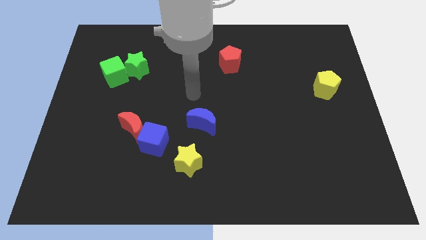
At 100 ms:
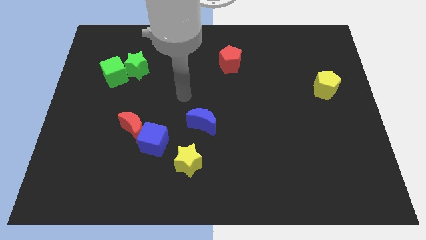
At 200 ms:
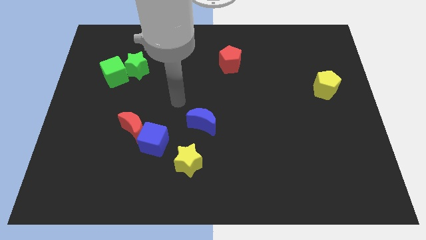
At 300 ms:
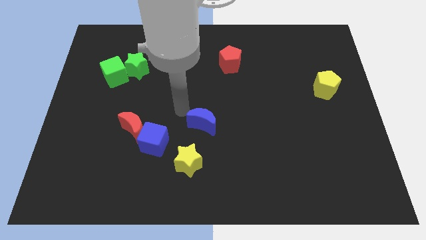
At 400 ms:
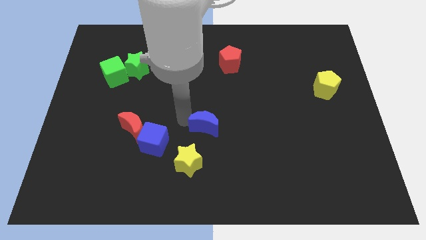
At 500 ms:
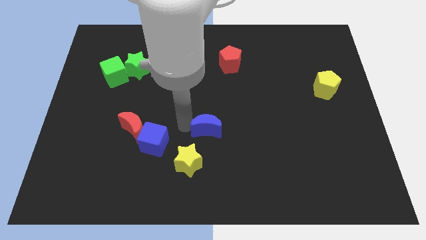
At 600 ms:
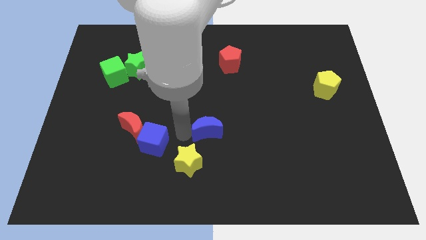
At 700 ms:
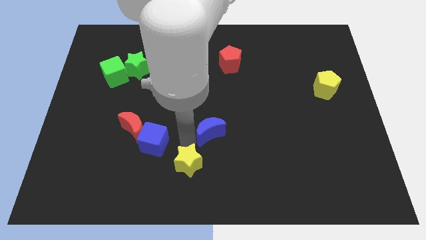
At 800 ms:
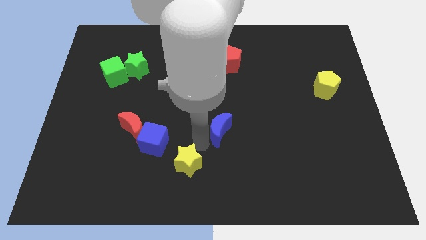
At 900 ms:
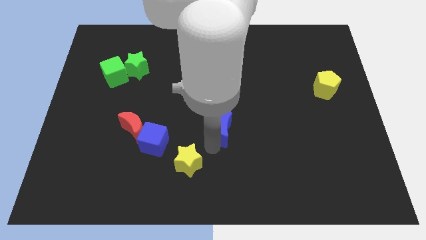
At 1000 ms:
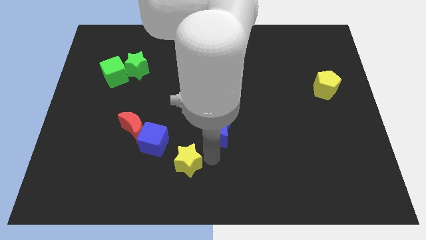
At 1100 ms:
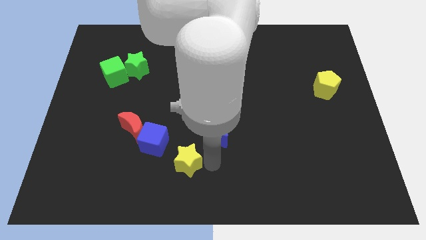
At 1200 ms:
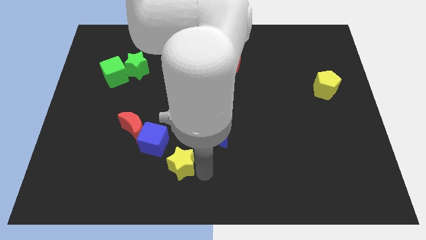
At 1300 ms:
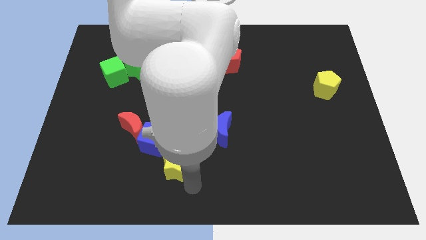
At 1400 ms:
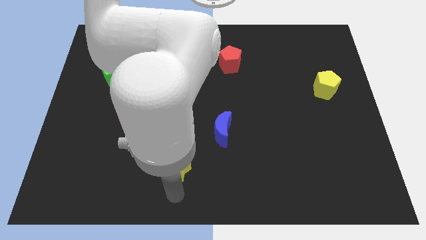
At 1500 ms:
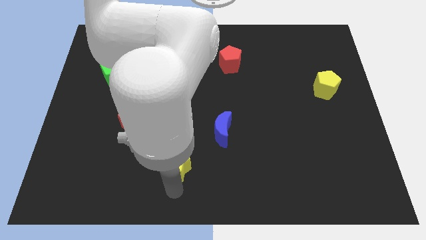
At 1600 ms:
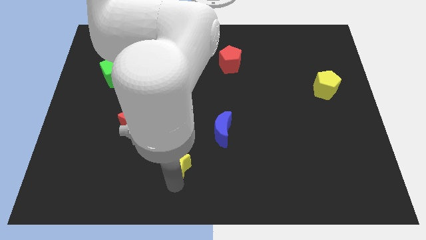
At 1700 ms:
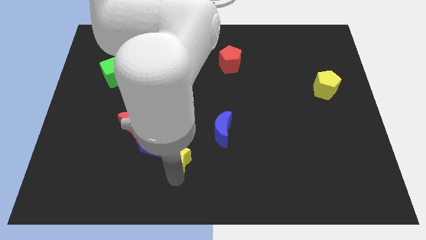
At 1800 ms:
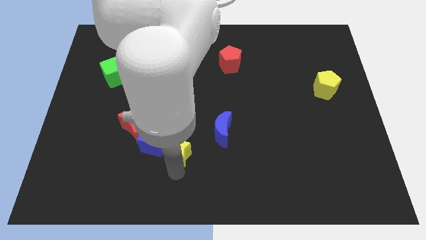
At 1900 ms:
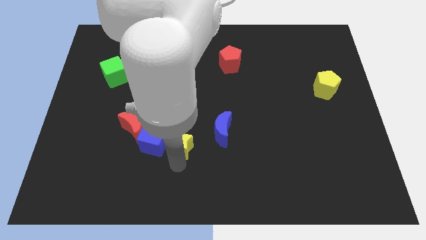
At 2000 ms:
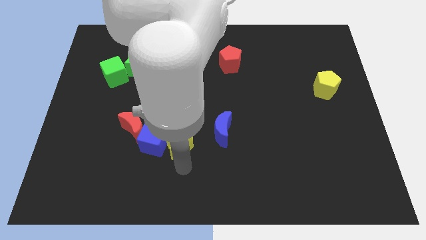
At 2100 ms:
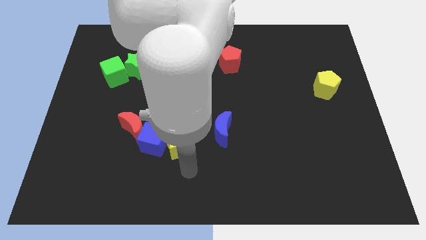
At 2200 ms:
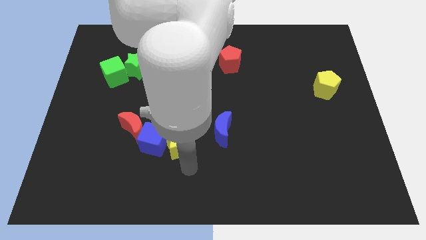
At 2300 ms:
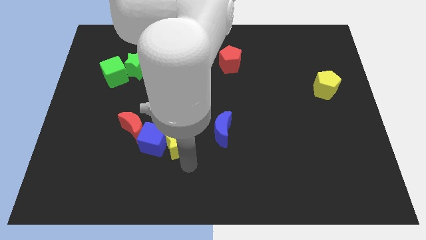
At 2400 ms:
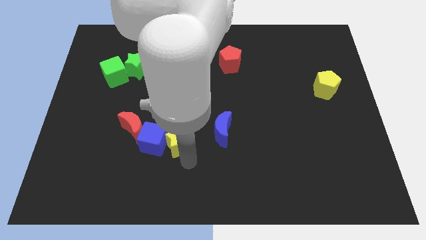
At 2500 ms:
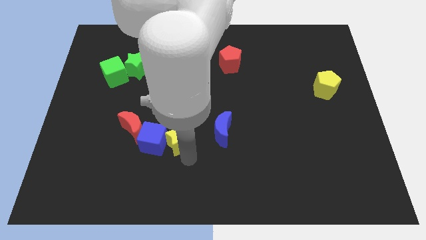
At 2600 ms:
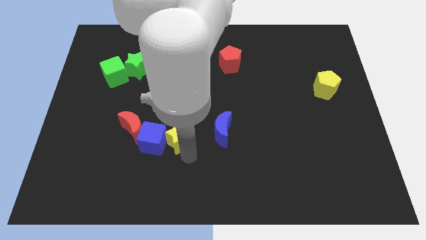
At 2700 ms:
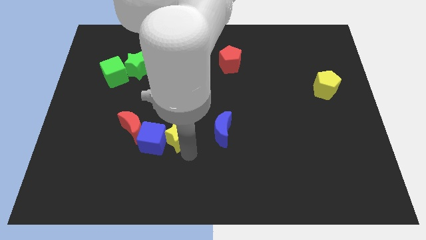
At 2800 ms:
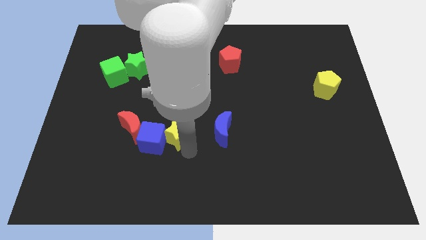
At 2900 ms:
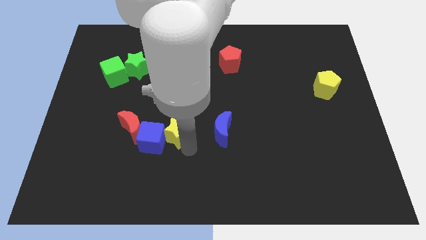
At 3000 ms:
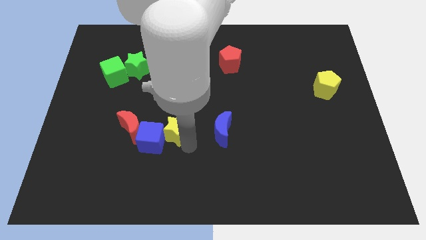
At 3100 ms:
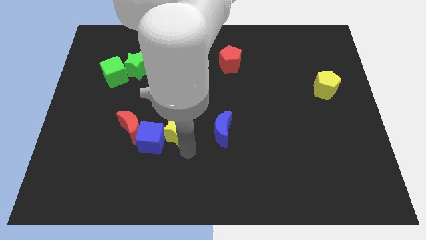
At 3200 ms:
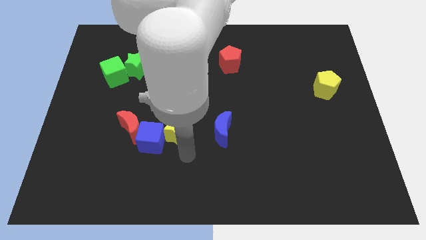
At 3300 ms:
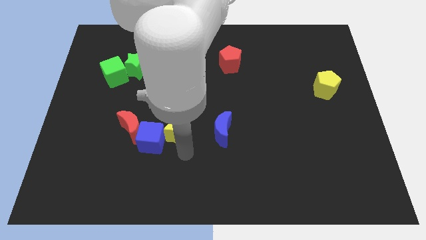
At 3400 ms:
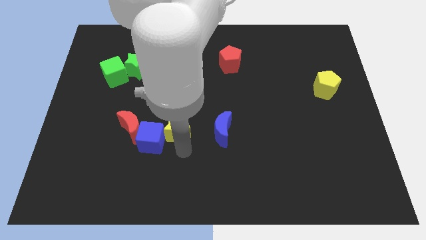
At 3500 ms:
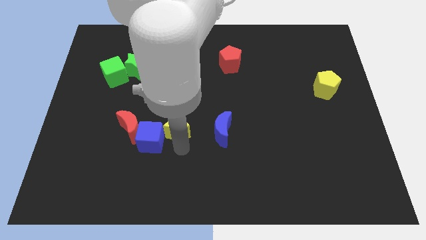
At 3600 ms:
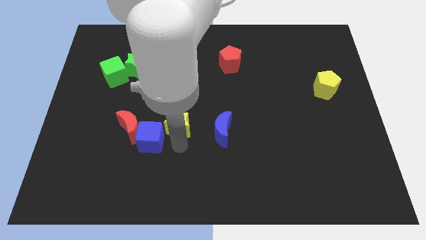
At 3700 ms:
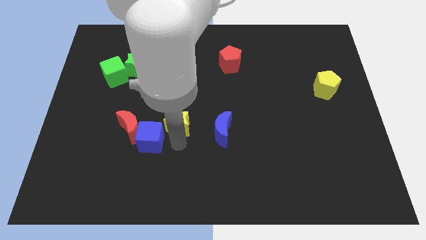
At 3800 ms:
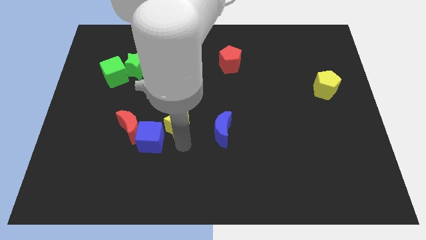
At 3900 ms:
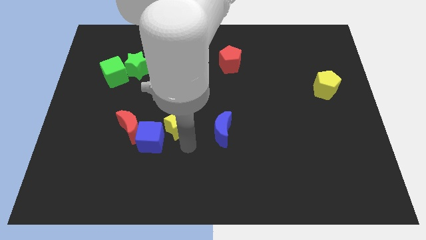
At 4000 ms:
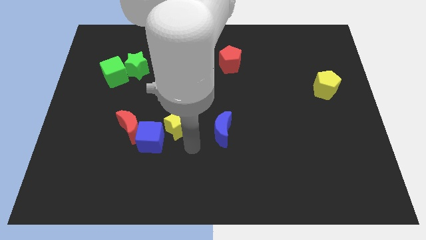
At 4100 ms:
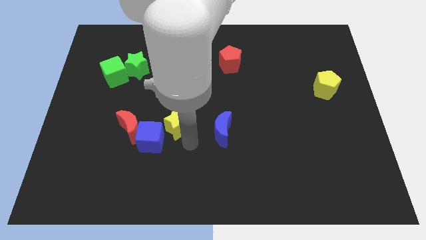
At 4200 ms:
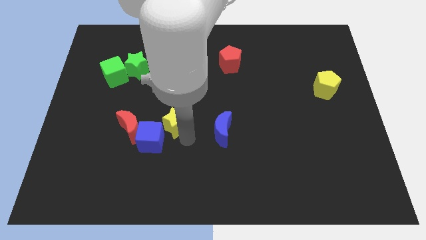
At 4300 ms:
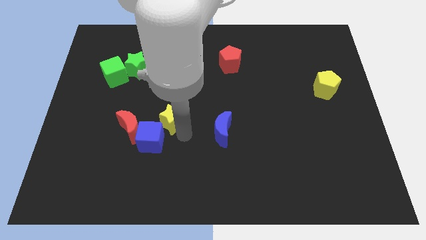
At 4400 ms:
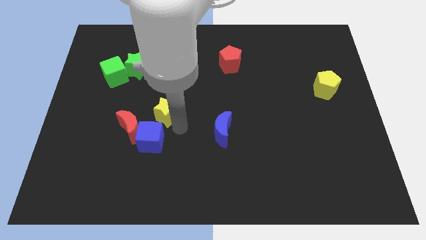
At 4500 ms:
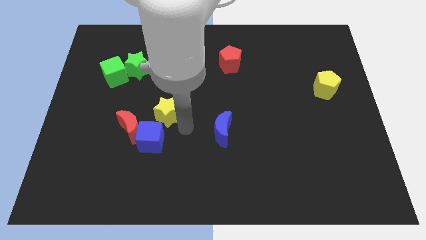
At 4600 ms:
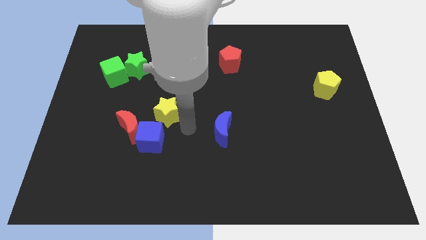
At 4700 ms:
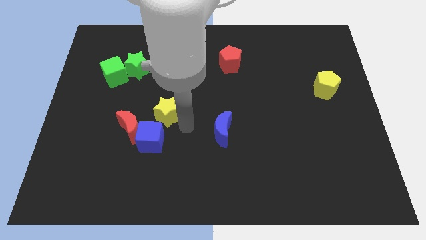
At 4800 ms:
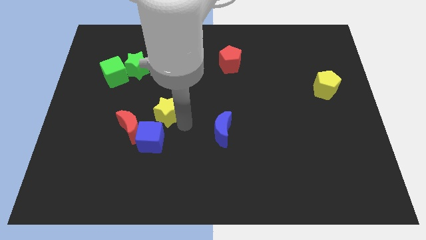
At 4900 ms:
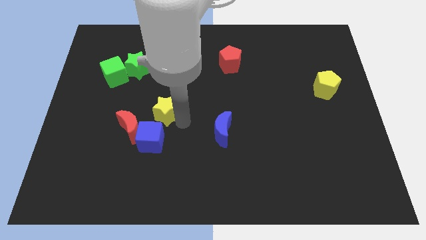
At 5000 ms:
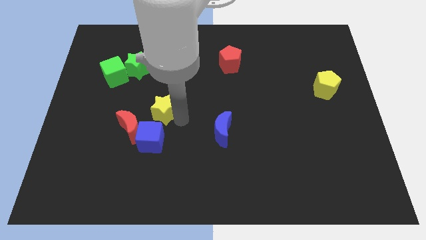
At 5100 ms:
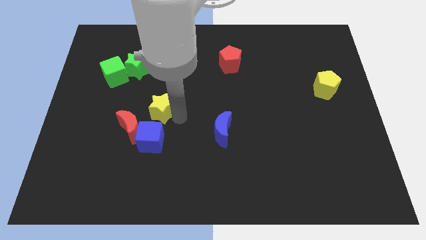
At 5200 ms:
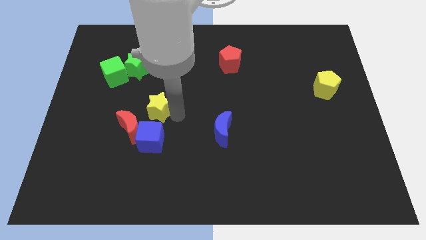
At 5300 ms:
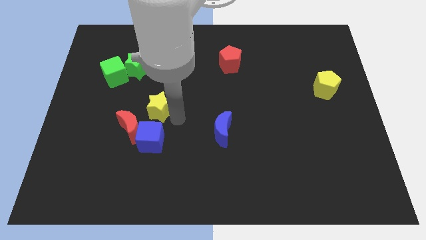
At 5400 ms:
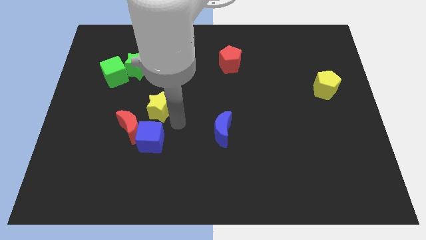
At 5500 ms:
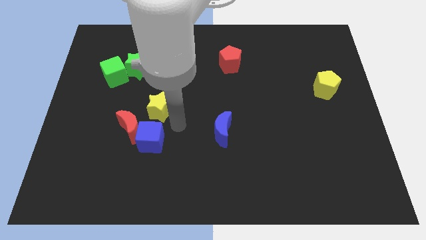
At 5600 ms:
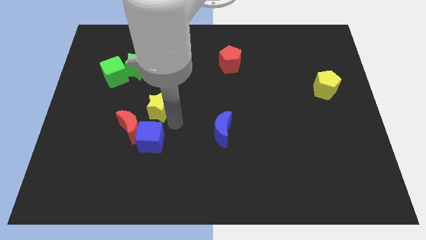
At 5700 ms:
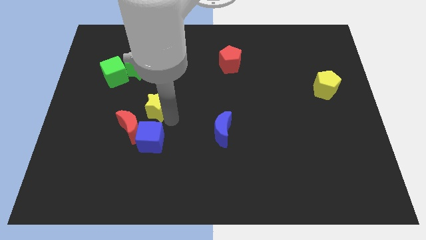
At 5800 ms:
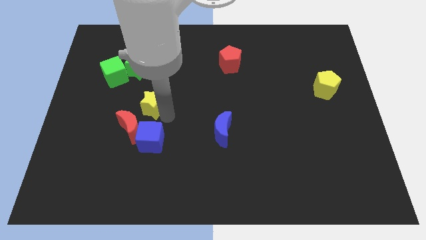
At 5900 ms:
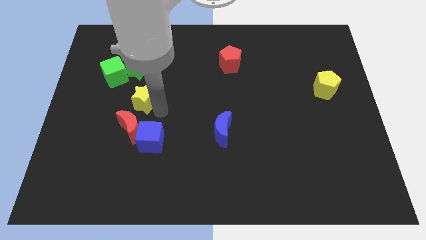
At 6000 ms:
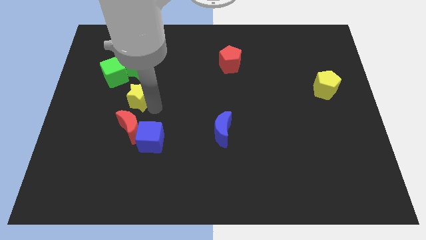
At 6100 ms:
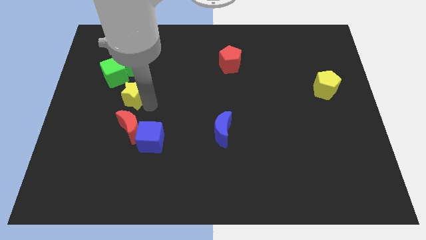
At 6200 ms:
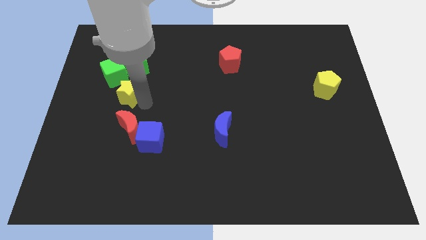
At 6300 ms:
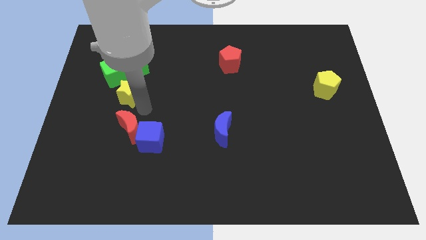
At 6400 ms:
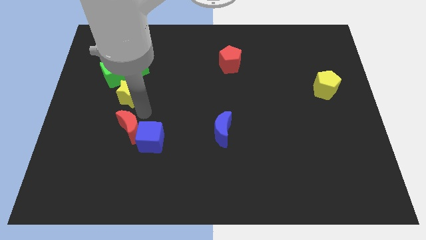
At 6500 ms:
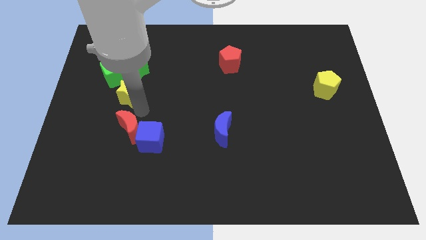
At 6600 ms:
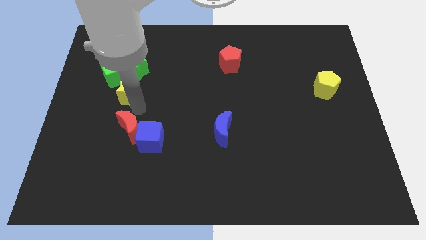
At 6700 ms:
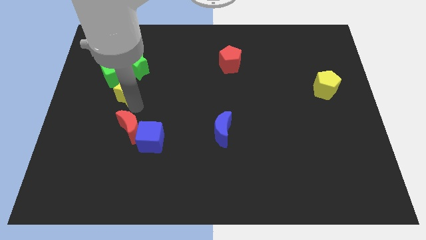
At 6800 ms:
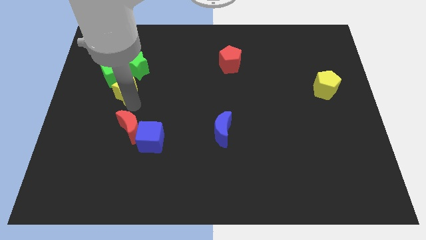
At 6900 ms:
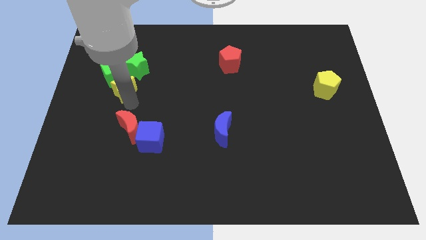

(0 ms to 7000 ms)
move the yellow star to the green cube

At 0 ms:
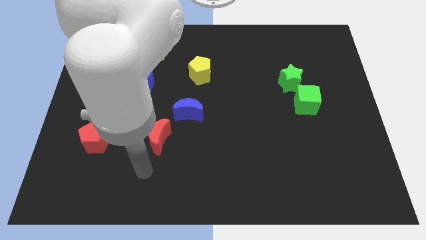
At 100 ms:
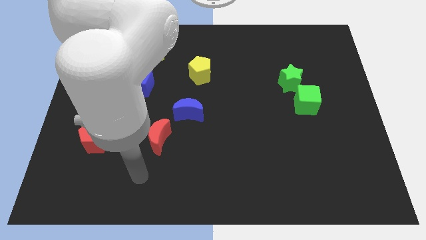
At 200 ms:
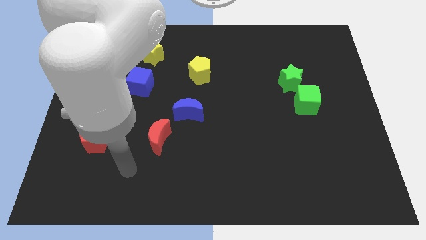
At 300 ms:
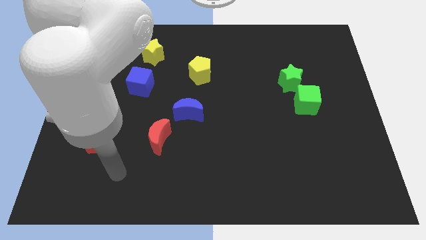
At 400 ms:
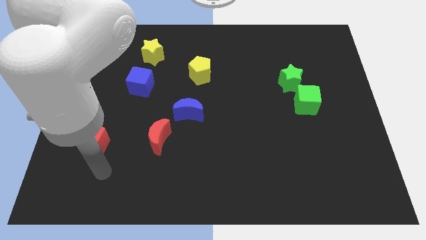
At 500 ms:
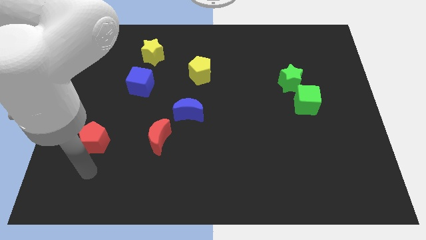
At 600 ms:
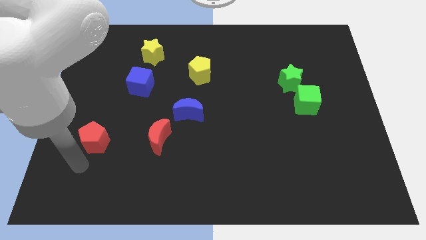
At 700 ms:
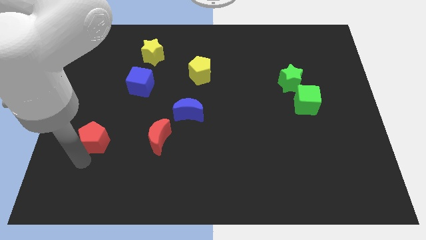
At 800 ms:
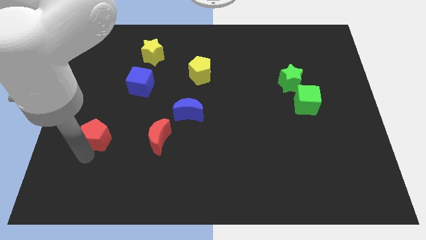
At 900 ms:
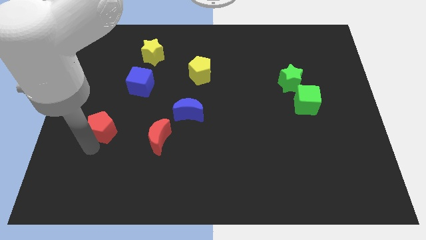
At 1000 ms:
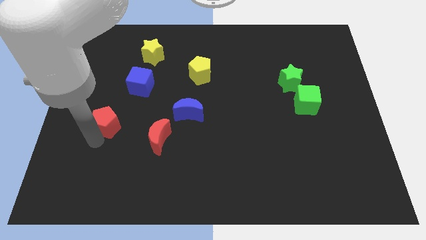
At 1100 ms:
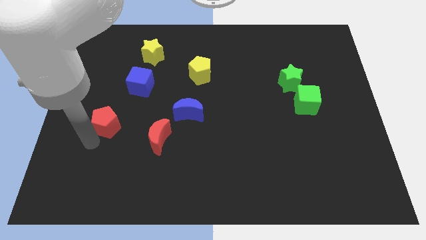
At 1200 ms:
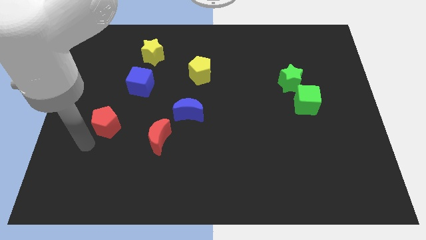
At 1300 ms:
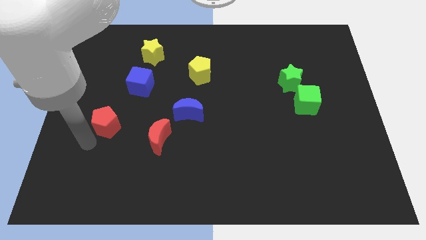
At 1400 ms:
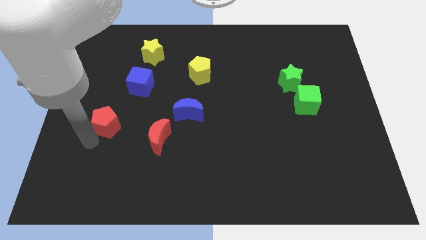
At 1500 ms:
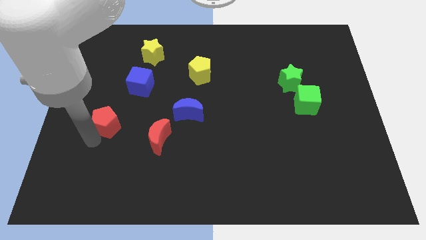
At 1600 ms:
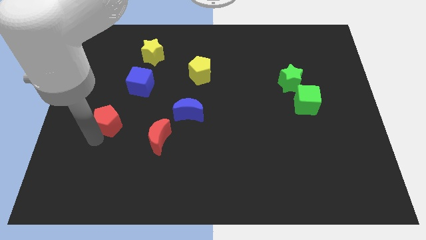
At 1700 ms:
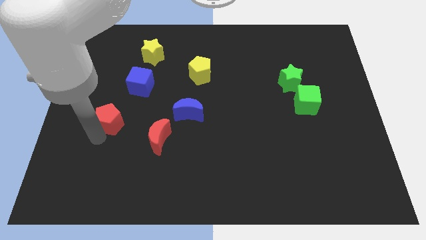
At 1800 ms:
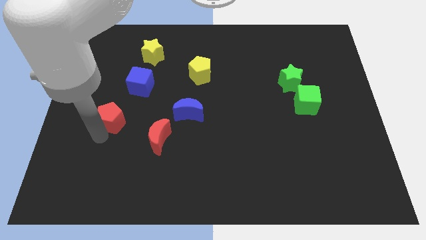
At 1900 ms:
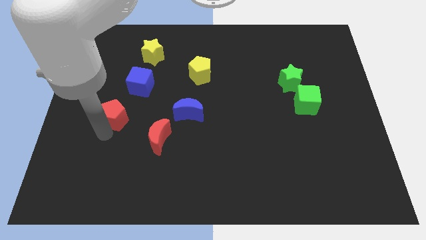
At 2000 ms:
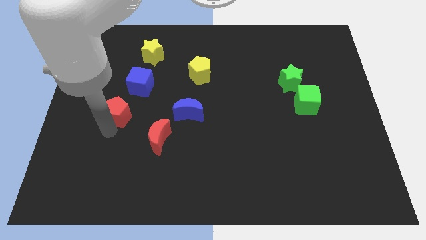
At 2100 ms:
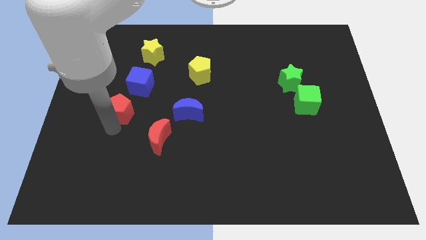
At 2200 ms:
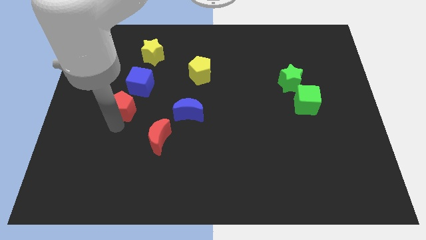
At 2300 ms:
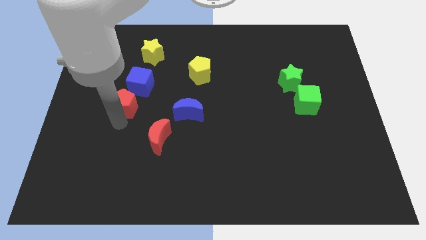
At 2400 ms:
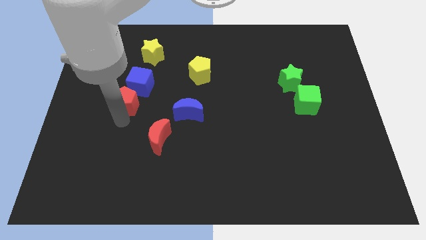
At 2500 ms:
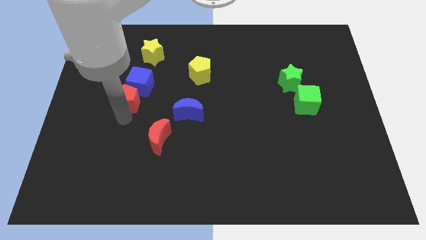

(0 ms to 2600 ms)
push the red pentagon next to the blue cube
